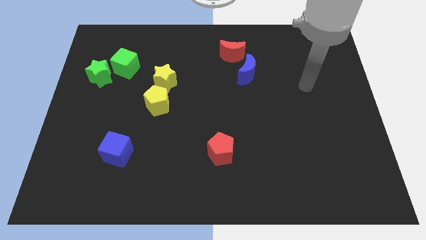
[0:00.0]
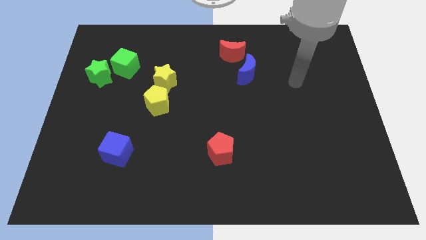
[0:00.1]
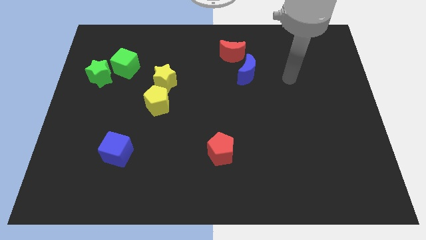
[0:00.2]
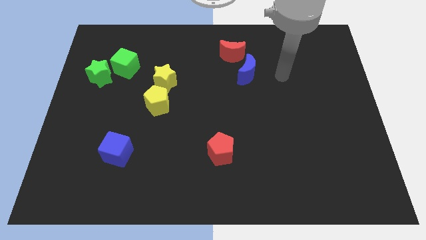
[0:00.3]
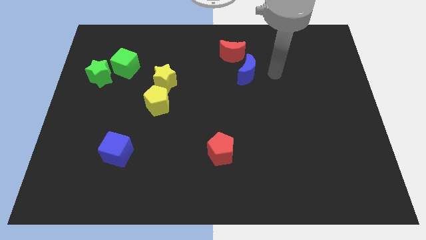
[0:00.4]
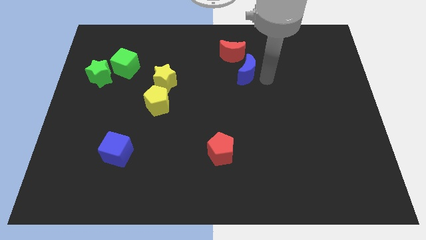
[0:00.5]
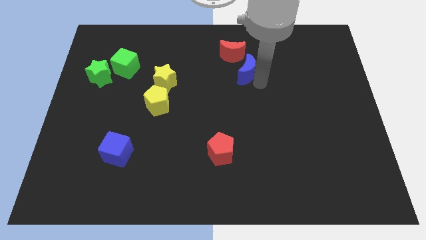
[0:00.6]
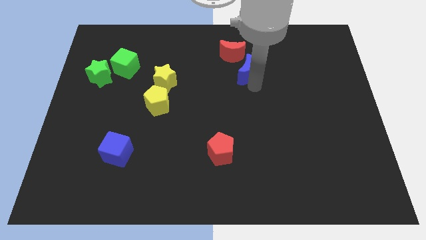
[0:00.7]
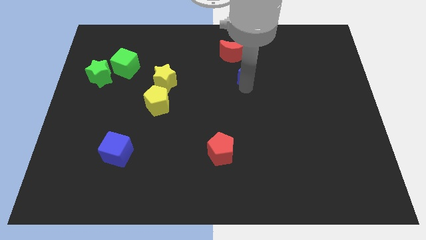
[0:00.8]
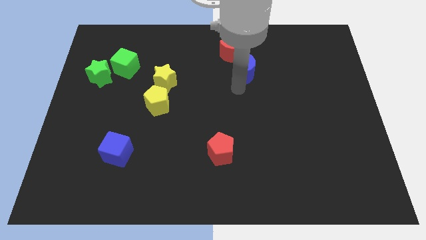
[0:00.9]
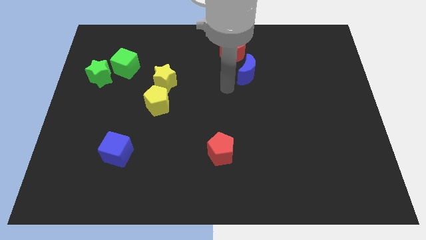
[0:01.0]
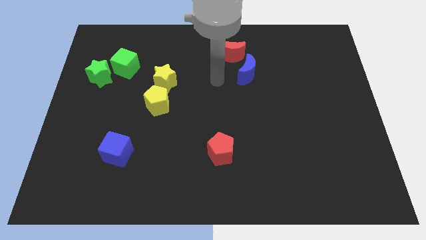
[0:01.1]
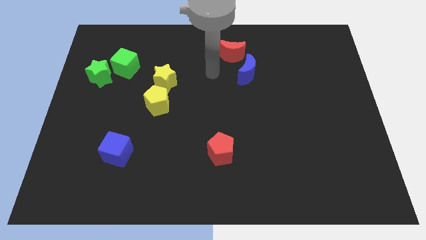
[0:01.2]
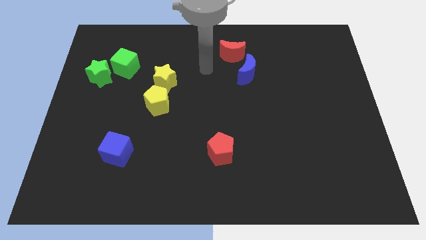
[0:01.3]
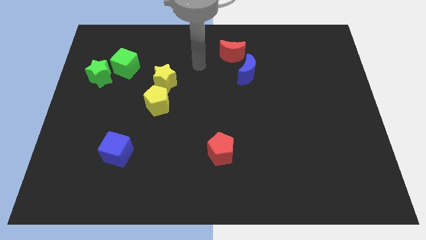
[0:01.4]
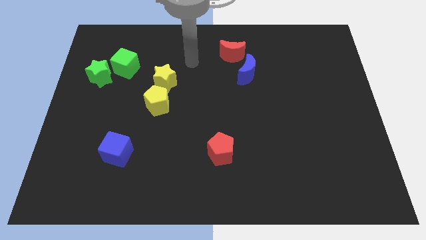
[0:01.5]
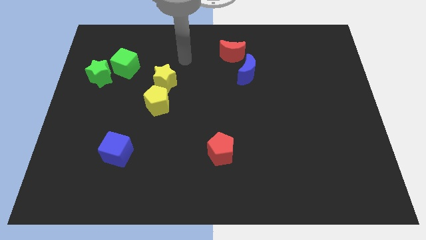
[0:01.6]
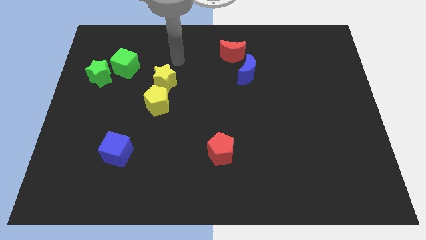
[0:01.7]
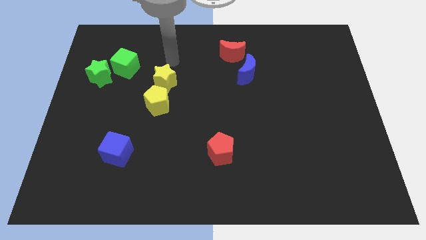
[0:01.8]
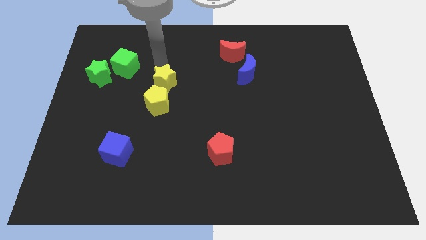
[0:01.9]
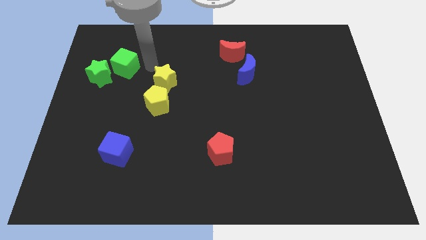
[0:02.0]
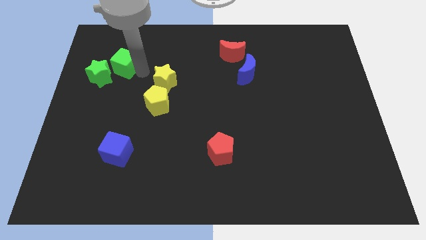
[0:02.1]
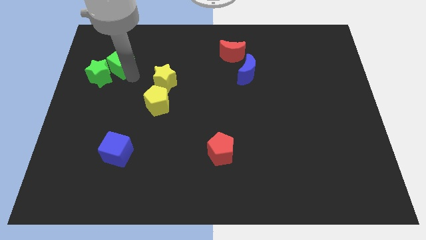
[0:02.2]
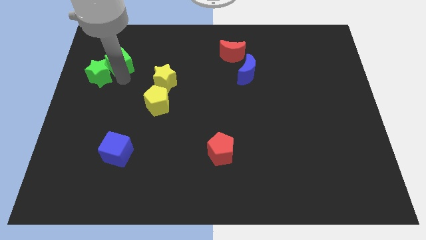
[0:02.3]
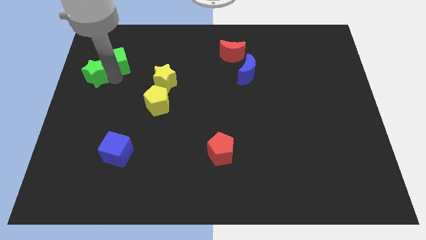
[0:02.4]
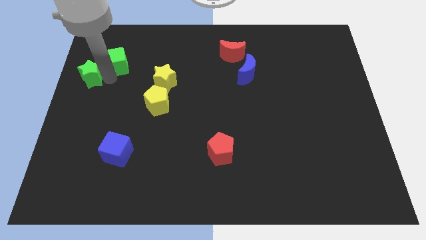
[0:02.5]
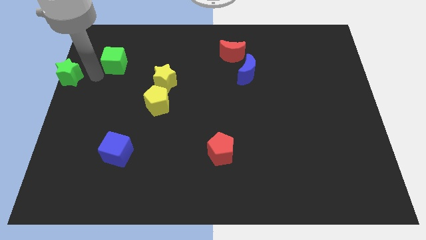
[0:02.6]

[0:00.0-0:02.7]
move the green cube away from the green star

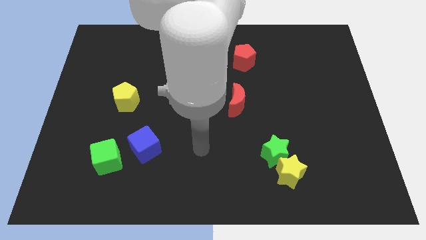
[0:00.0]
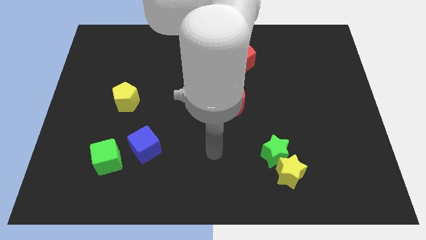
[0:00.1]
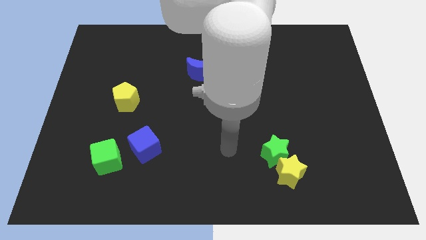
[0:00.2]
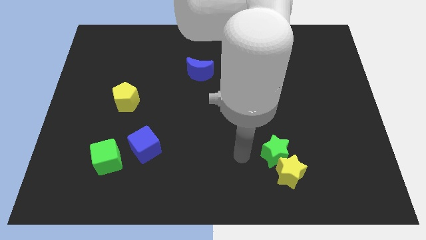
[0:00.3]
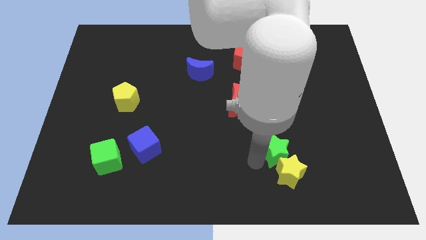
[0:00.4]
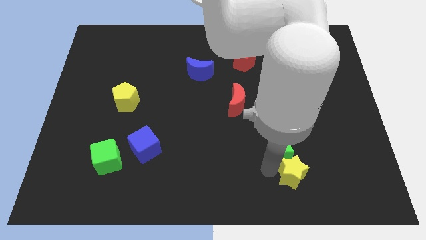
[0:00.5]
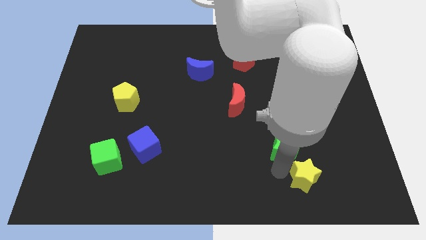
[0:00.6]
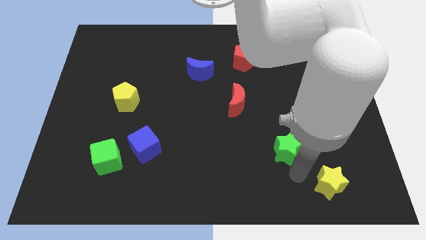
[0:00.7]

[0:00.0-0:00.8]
pull the green star apart from the yellow star

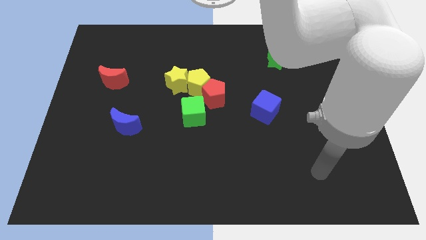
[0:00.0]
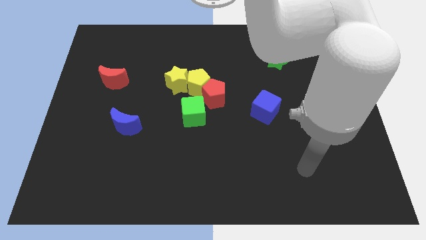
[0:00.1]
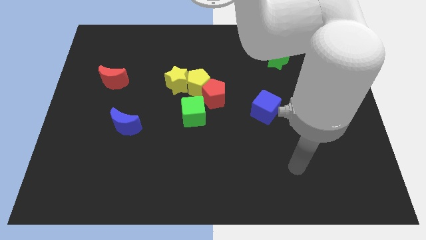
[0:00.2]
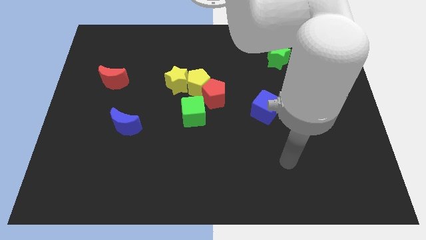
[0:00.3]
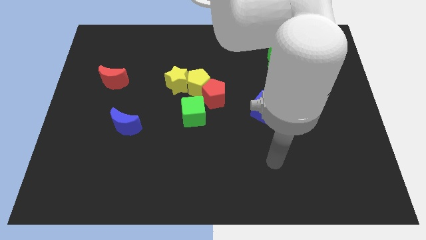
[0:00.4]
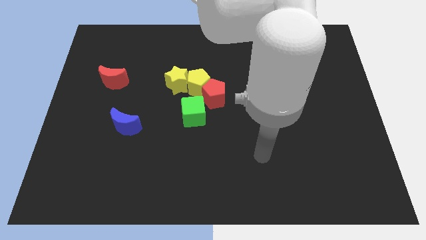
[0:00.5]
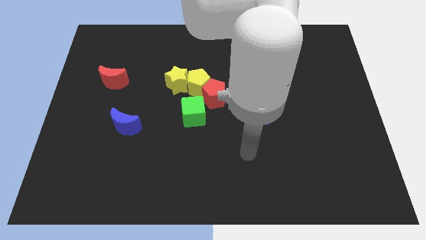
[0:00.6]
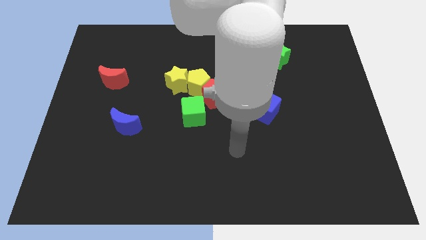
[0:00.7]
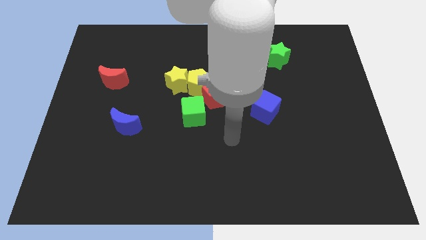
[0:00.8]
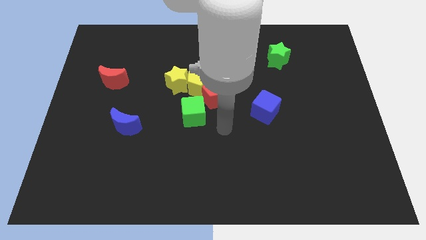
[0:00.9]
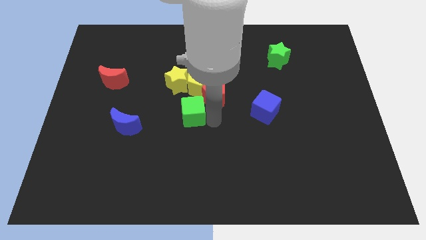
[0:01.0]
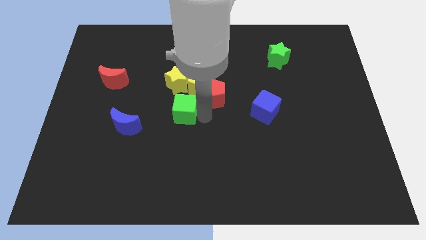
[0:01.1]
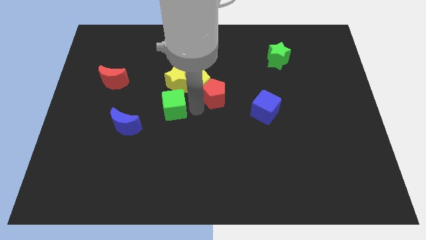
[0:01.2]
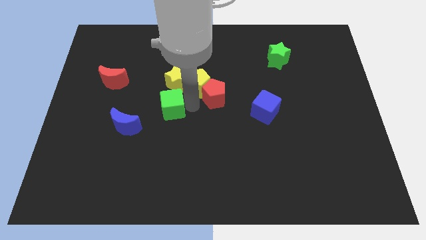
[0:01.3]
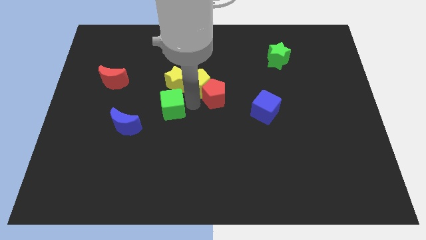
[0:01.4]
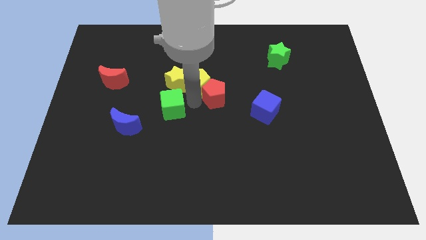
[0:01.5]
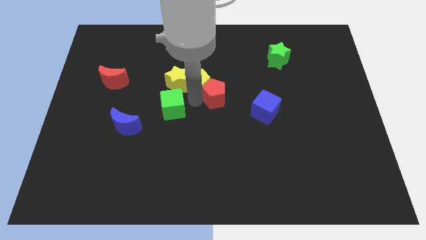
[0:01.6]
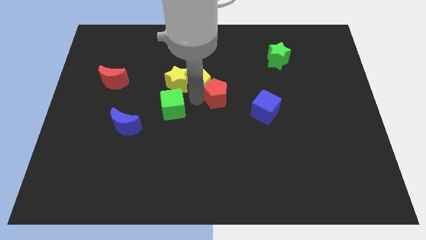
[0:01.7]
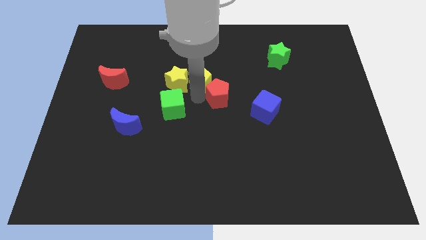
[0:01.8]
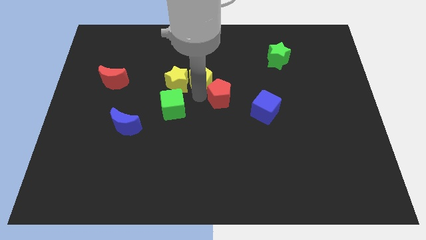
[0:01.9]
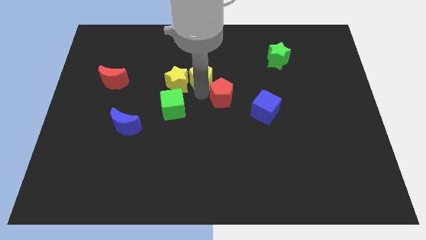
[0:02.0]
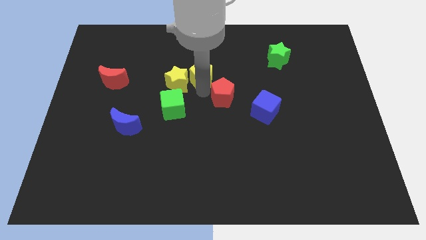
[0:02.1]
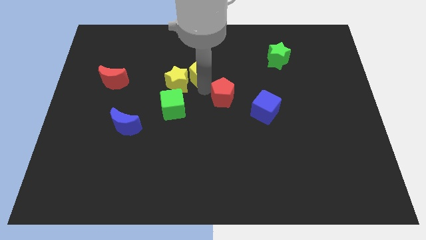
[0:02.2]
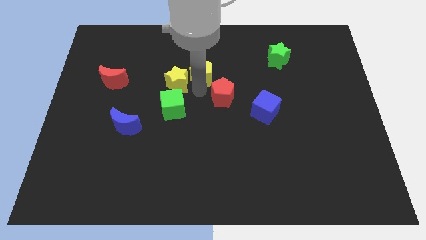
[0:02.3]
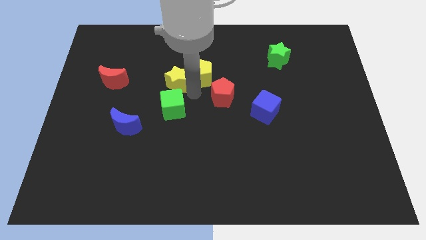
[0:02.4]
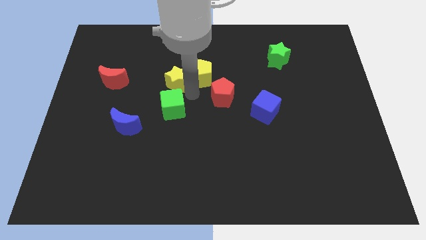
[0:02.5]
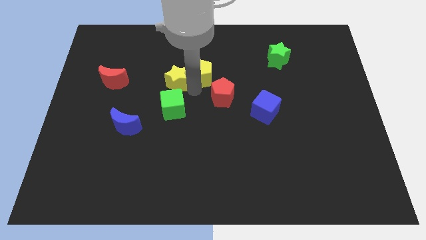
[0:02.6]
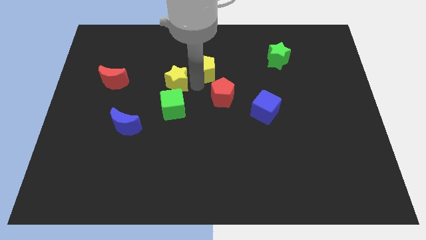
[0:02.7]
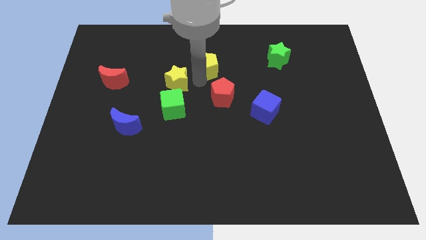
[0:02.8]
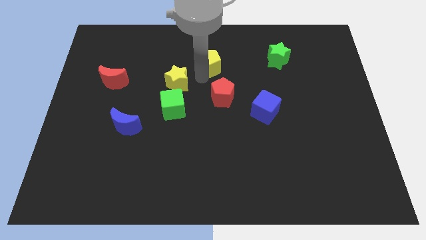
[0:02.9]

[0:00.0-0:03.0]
move the yellow pentagon away from the red pentagon, yellow star, and green cube

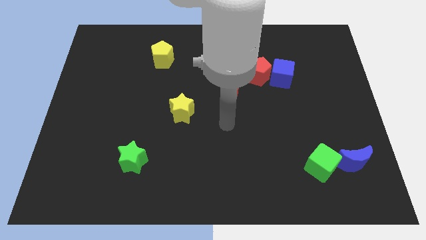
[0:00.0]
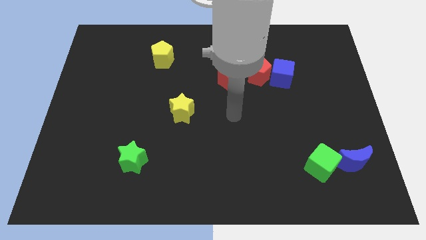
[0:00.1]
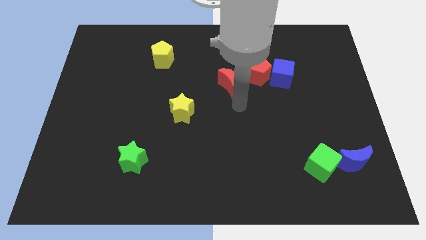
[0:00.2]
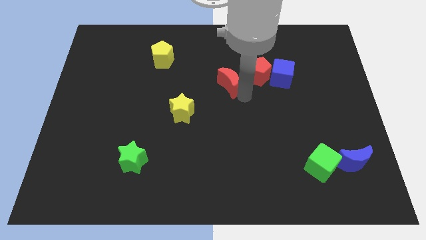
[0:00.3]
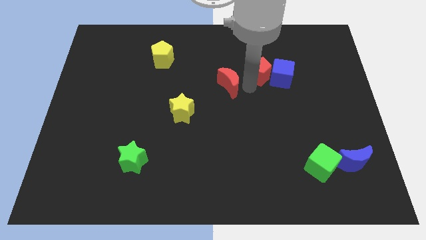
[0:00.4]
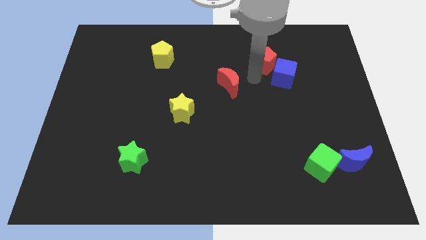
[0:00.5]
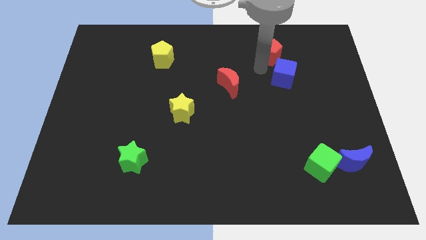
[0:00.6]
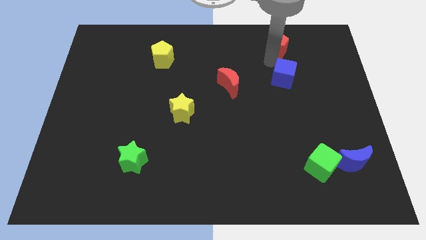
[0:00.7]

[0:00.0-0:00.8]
pull the blue cube apart from the red pentagon

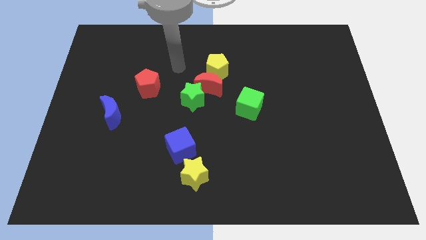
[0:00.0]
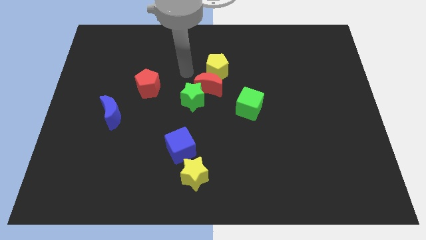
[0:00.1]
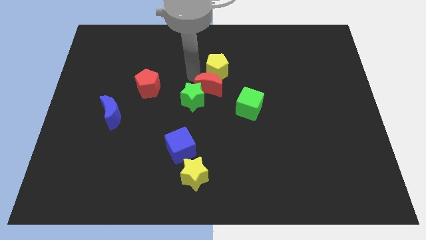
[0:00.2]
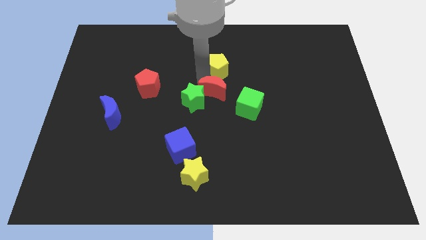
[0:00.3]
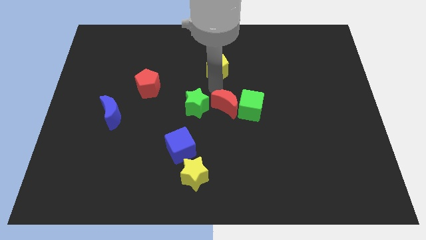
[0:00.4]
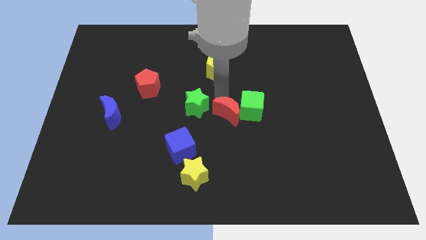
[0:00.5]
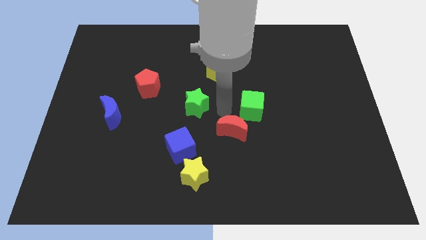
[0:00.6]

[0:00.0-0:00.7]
move the green star away from the red moon

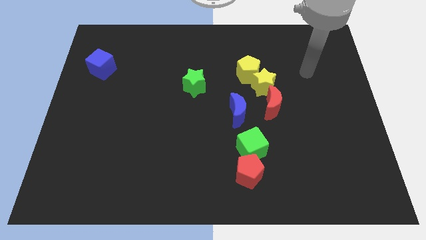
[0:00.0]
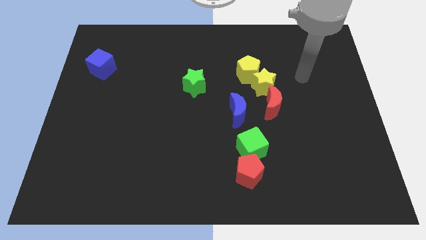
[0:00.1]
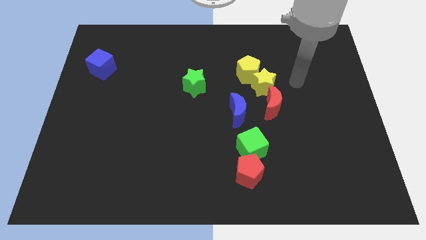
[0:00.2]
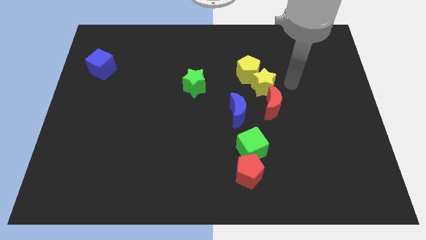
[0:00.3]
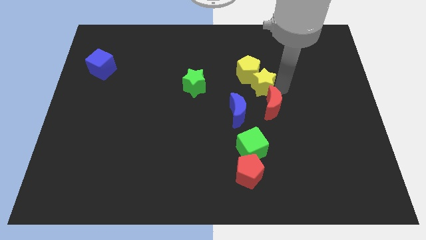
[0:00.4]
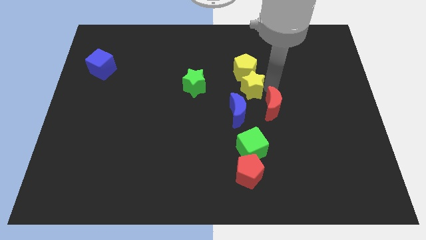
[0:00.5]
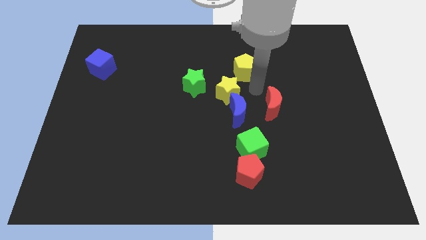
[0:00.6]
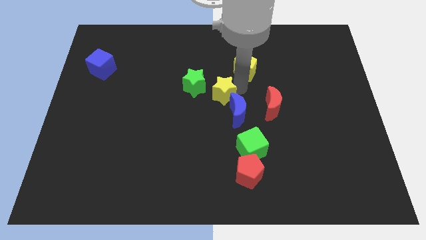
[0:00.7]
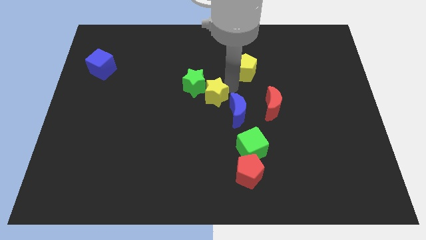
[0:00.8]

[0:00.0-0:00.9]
move the yellow pentagon away from the yellow star

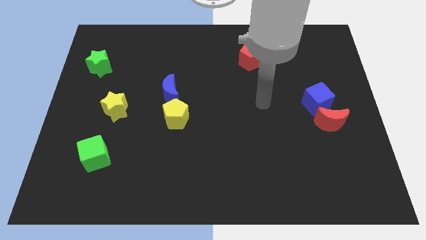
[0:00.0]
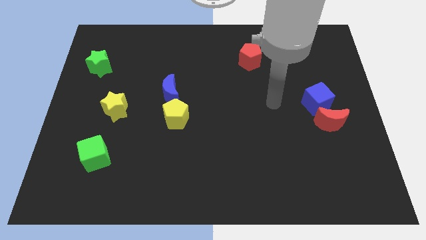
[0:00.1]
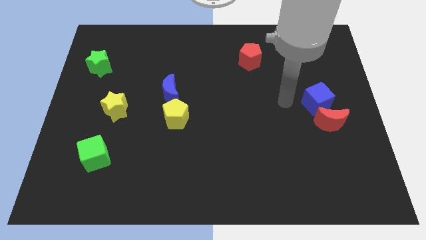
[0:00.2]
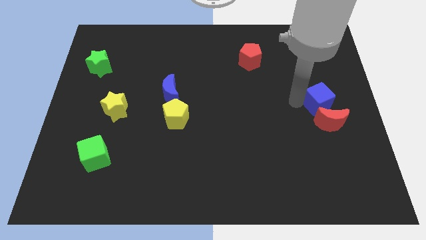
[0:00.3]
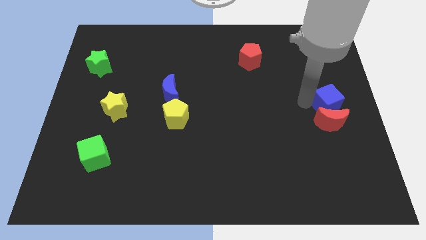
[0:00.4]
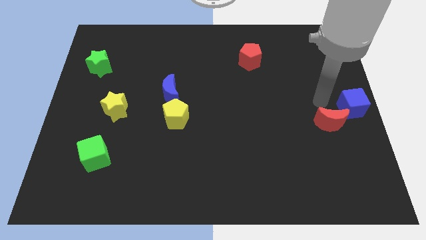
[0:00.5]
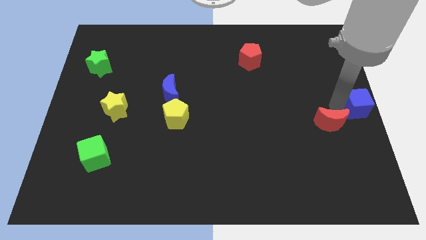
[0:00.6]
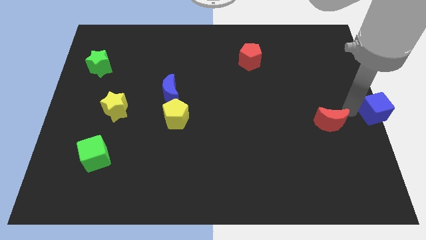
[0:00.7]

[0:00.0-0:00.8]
pull the red moon apart from the blue cube
